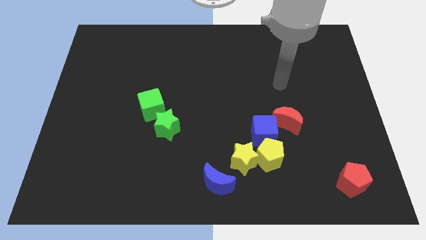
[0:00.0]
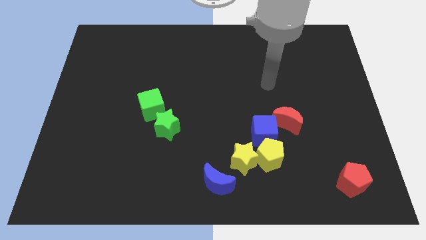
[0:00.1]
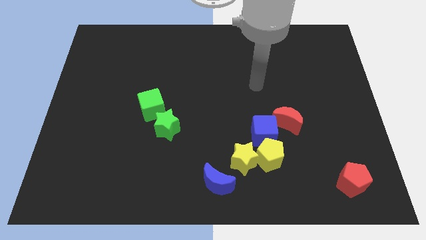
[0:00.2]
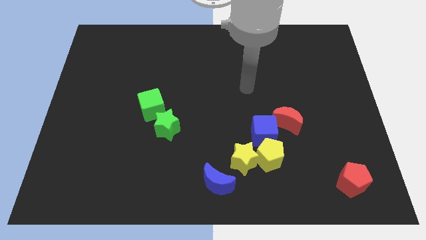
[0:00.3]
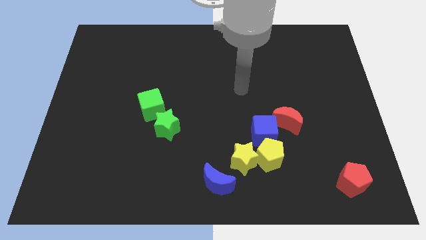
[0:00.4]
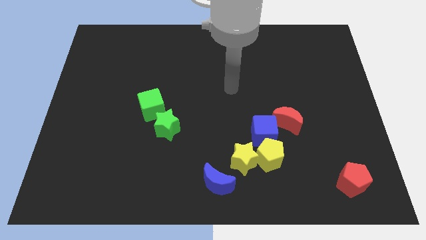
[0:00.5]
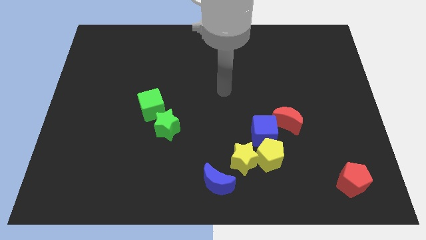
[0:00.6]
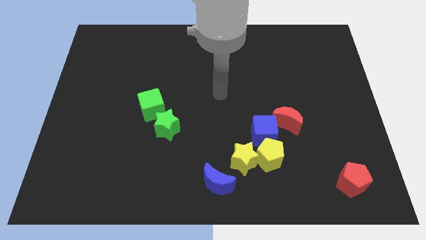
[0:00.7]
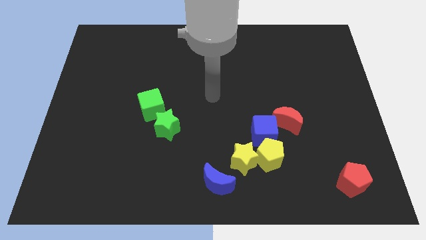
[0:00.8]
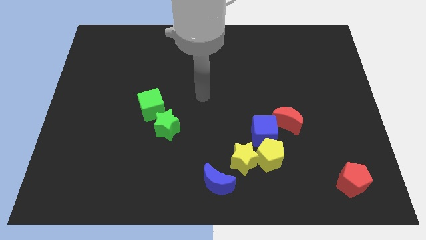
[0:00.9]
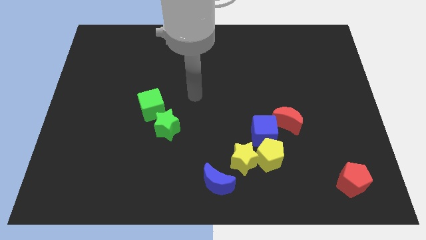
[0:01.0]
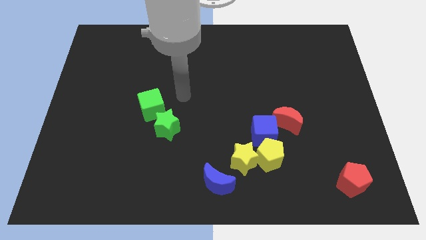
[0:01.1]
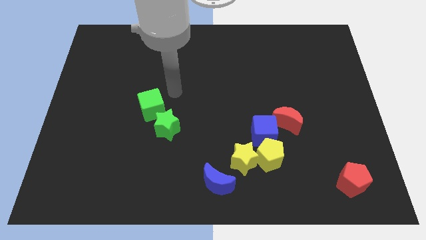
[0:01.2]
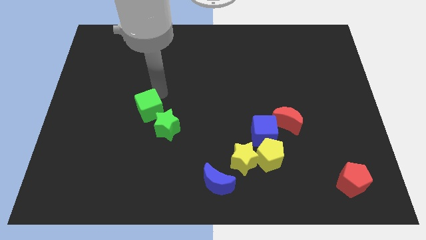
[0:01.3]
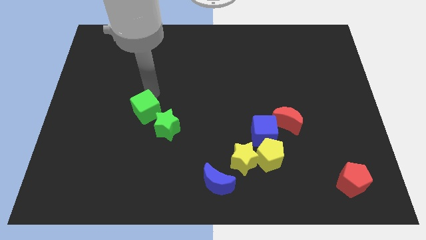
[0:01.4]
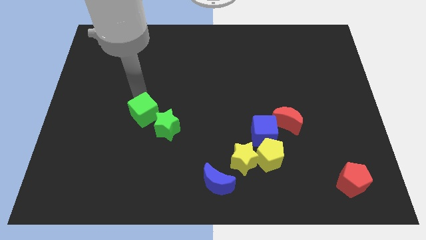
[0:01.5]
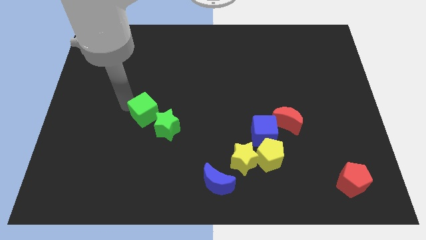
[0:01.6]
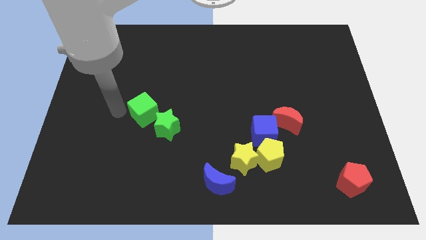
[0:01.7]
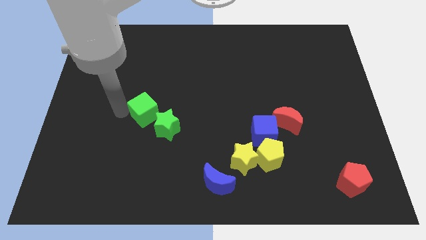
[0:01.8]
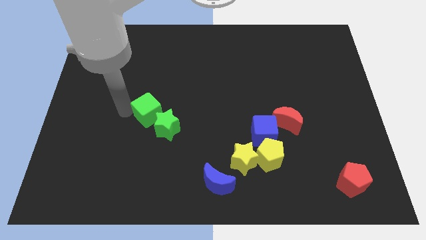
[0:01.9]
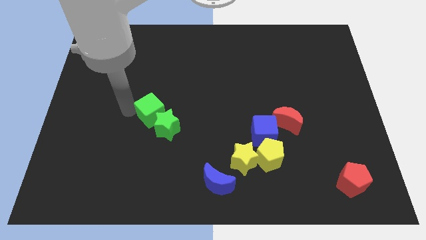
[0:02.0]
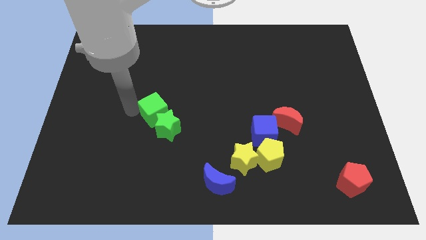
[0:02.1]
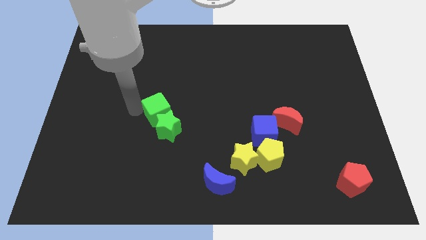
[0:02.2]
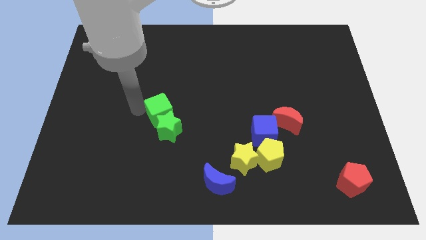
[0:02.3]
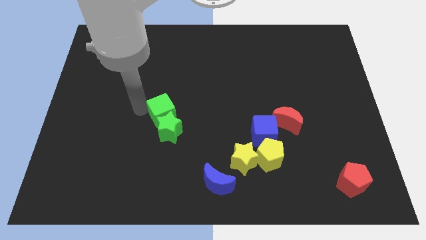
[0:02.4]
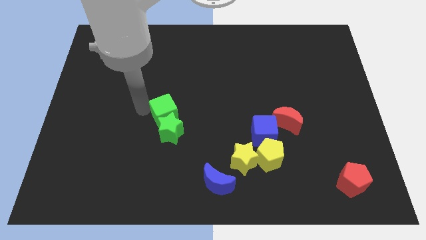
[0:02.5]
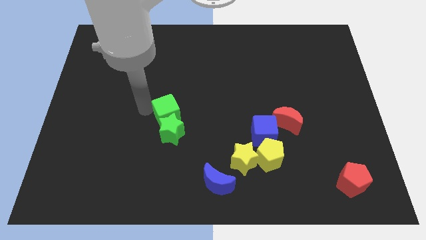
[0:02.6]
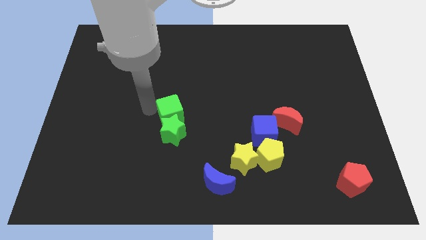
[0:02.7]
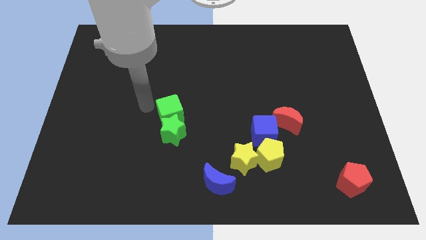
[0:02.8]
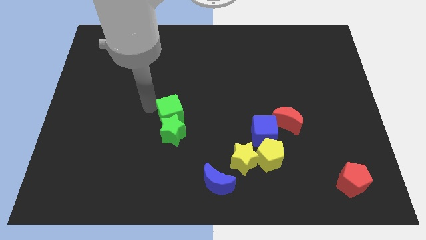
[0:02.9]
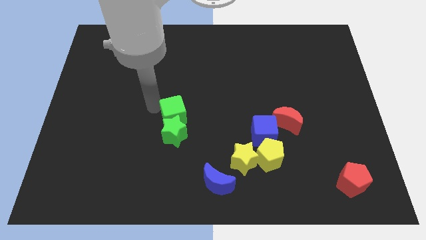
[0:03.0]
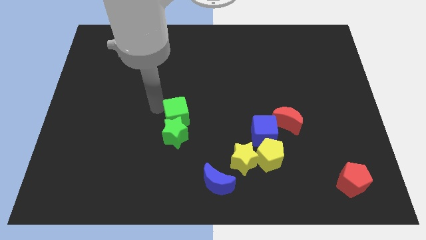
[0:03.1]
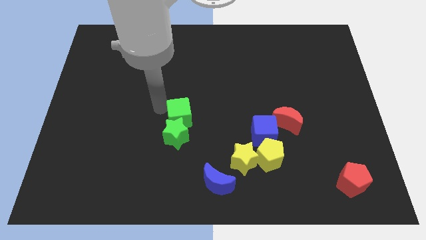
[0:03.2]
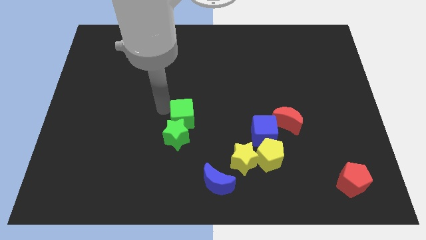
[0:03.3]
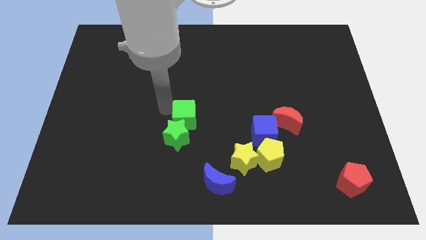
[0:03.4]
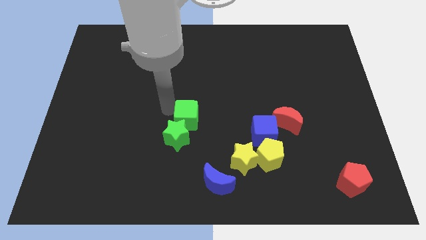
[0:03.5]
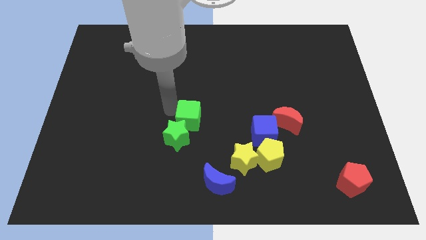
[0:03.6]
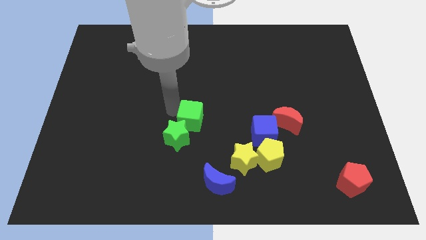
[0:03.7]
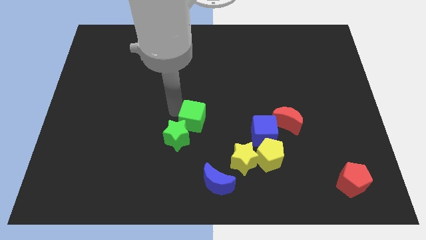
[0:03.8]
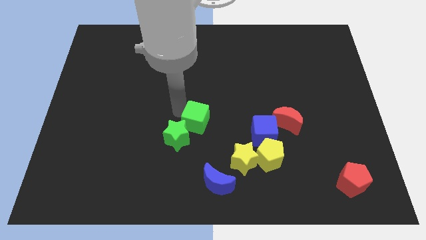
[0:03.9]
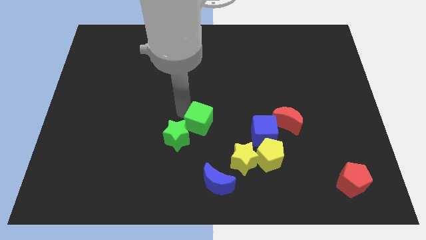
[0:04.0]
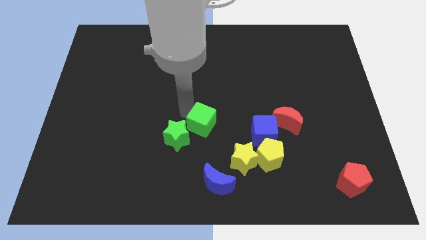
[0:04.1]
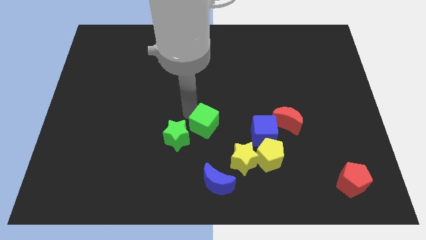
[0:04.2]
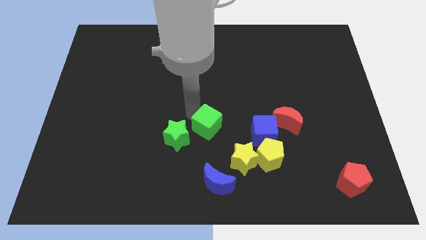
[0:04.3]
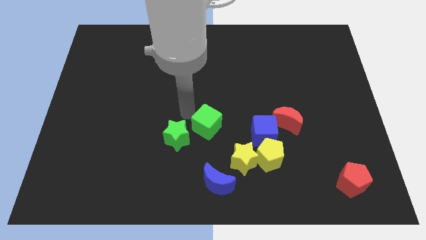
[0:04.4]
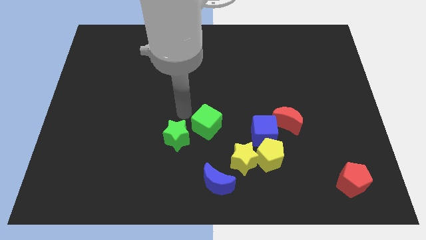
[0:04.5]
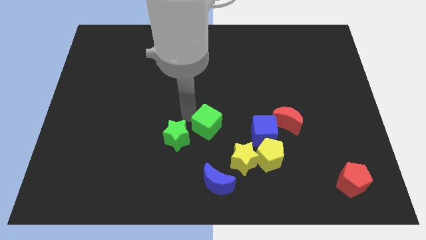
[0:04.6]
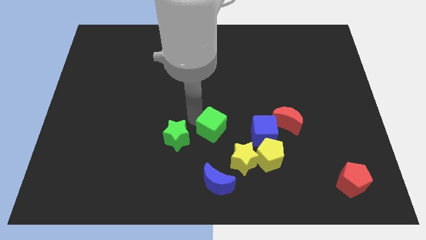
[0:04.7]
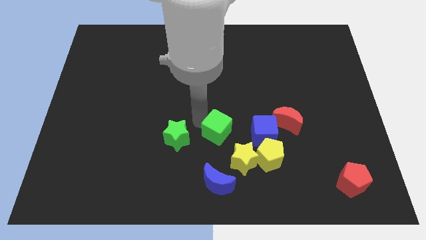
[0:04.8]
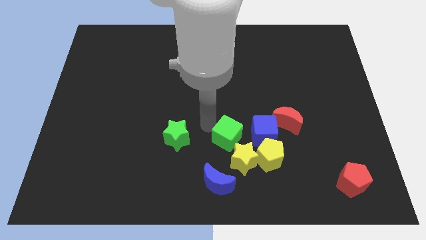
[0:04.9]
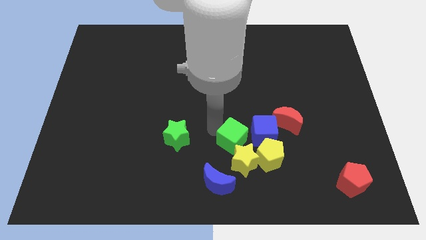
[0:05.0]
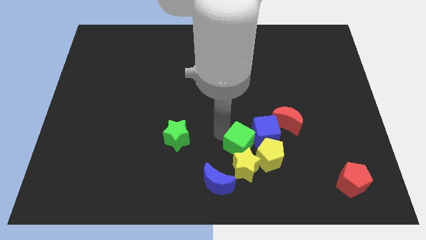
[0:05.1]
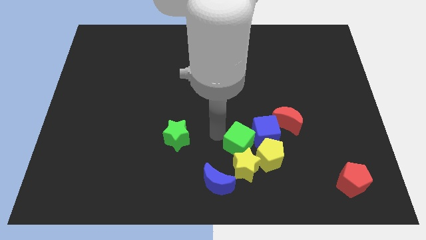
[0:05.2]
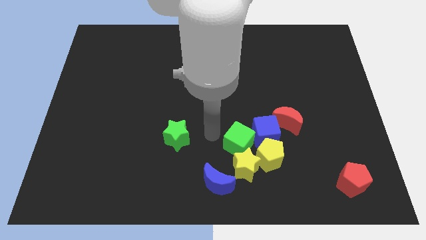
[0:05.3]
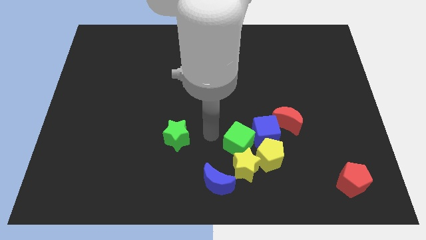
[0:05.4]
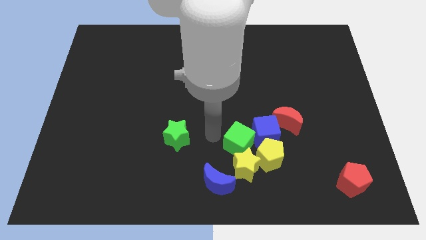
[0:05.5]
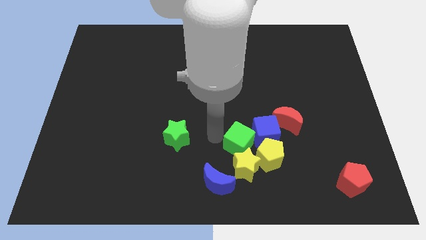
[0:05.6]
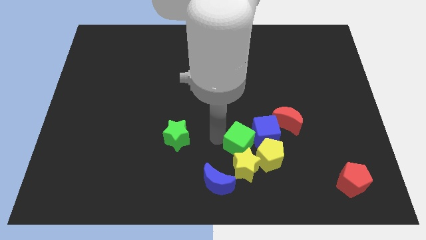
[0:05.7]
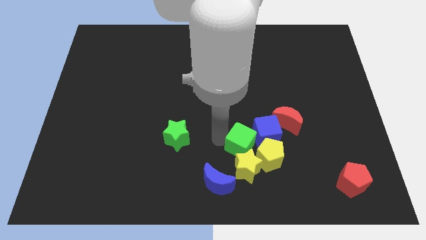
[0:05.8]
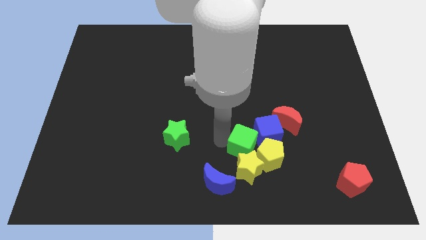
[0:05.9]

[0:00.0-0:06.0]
move the green cube towards the yellow pentagon

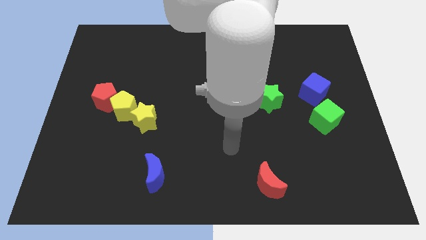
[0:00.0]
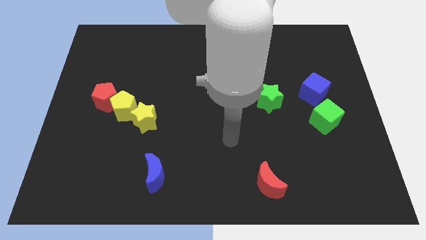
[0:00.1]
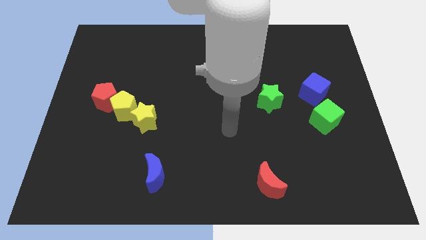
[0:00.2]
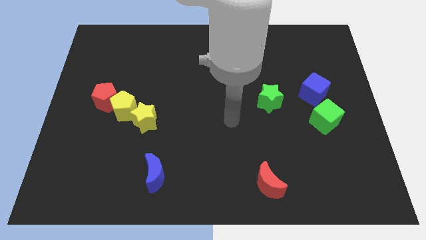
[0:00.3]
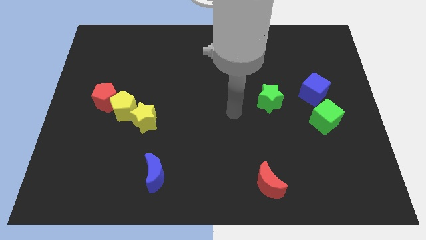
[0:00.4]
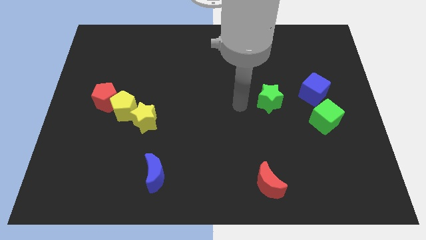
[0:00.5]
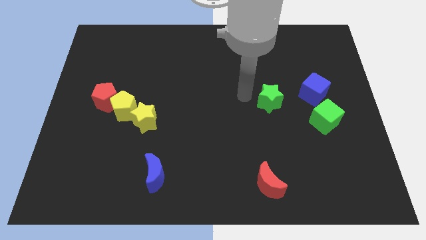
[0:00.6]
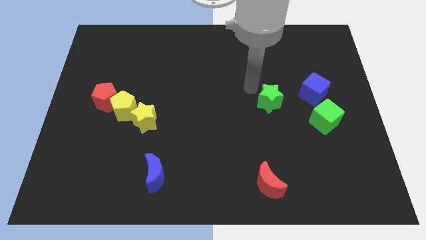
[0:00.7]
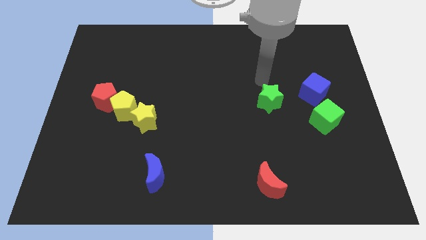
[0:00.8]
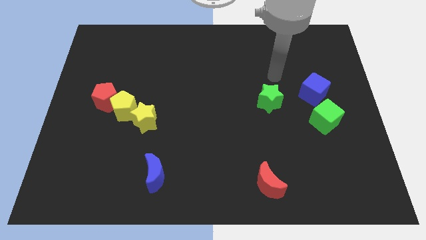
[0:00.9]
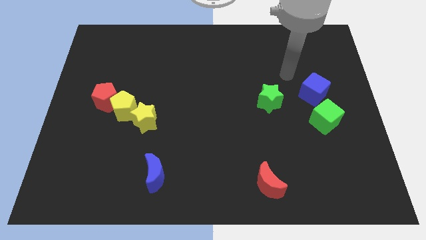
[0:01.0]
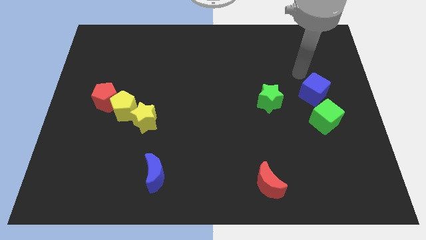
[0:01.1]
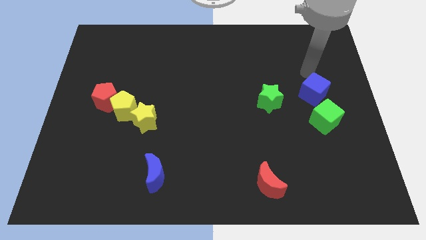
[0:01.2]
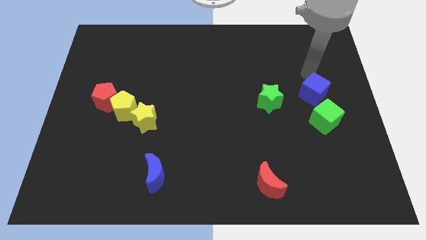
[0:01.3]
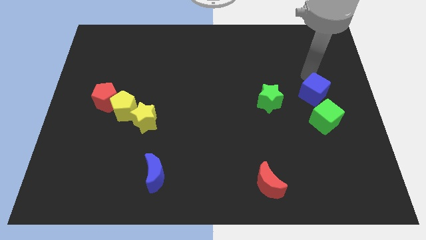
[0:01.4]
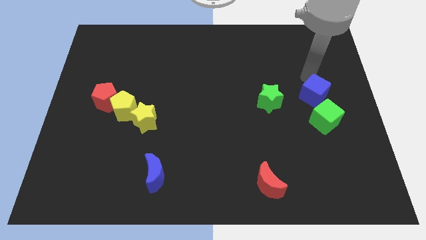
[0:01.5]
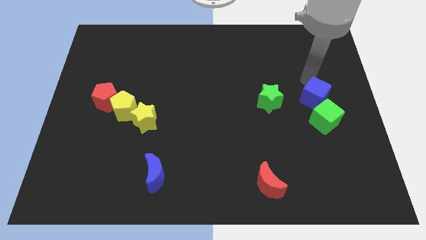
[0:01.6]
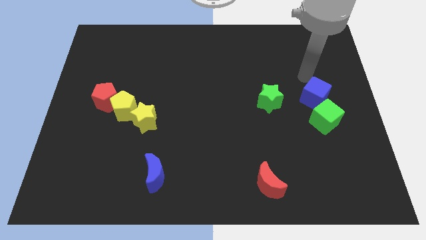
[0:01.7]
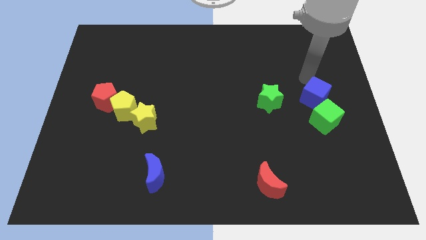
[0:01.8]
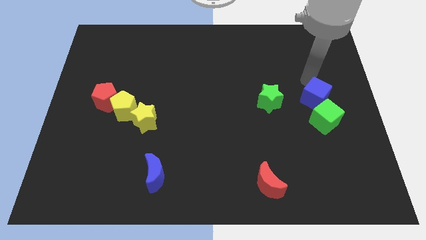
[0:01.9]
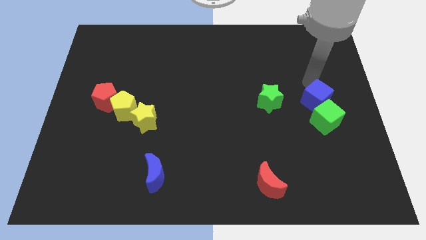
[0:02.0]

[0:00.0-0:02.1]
slide the blue cube next to the green cube
